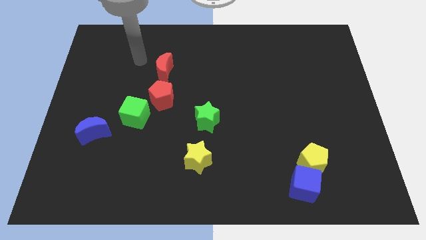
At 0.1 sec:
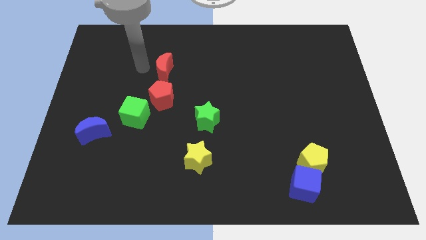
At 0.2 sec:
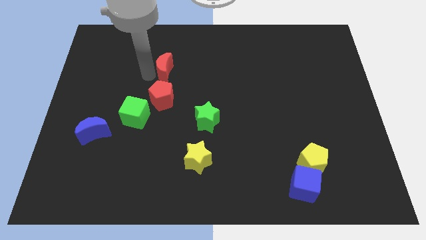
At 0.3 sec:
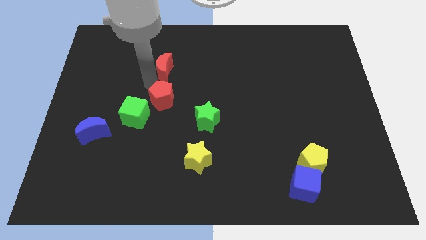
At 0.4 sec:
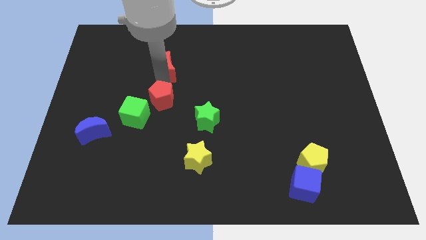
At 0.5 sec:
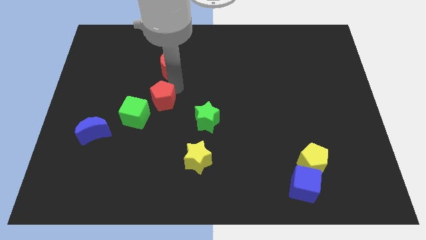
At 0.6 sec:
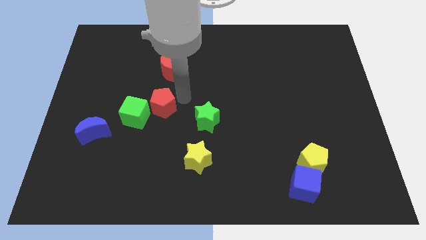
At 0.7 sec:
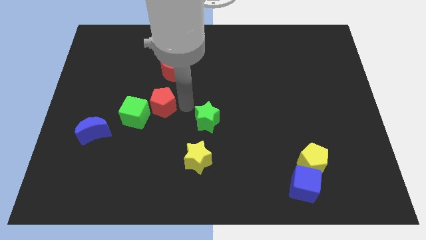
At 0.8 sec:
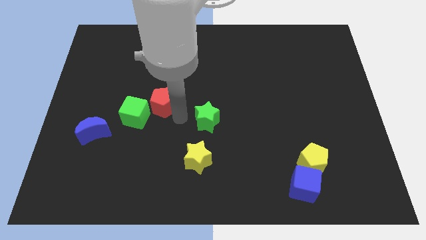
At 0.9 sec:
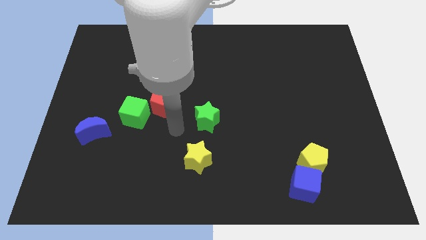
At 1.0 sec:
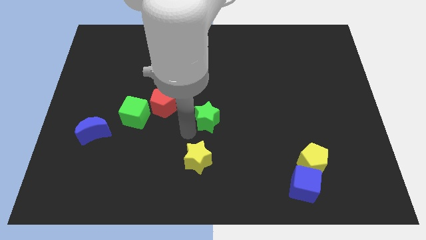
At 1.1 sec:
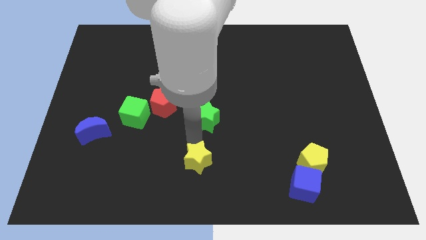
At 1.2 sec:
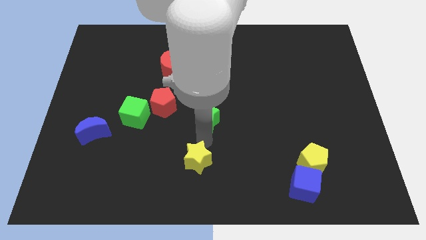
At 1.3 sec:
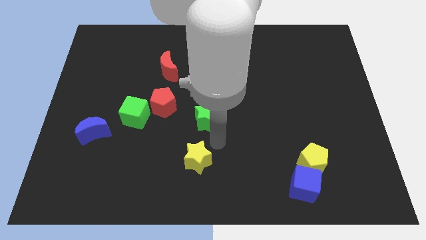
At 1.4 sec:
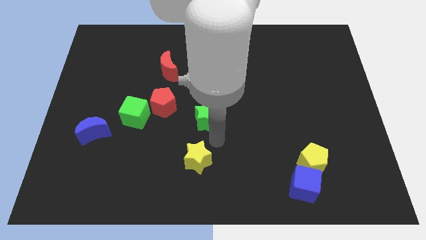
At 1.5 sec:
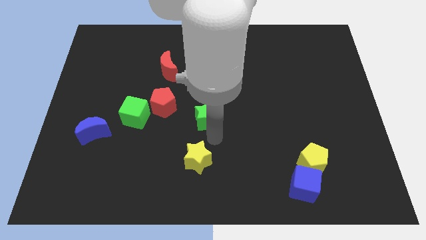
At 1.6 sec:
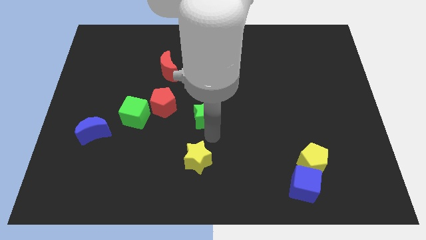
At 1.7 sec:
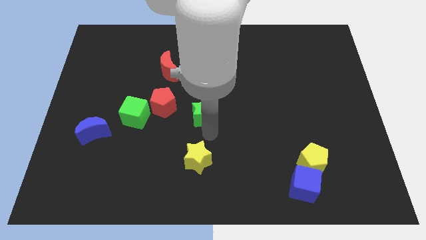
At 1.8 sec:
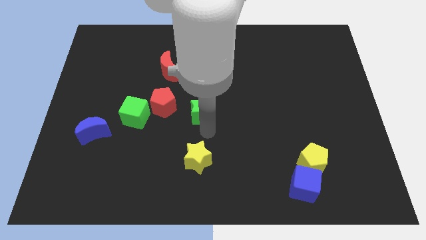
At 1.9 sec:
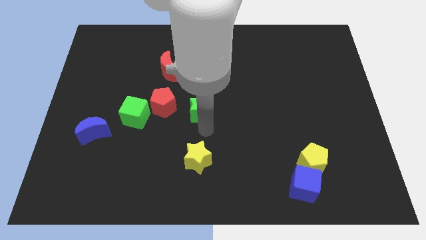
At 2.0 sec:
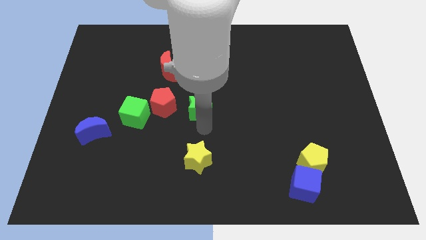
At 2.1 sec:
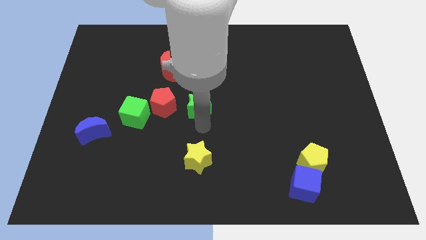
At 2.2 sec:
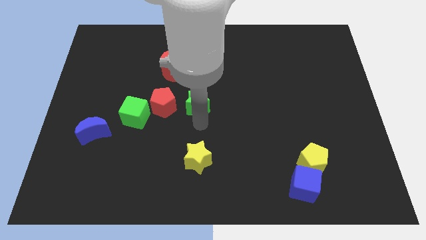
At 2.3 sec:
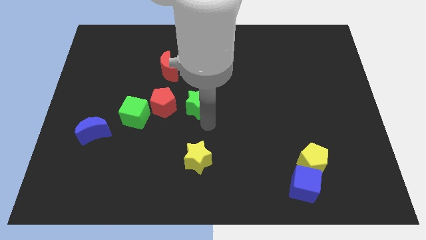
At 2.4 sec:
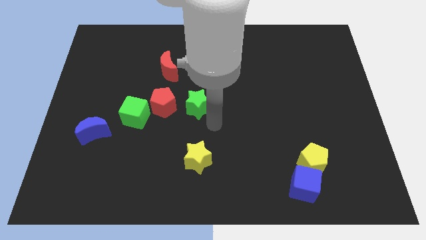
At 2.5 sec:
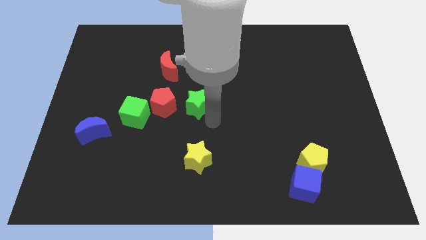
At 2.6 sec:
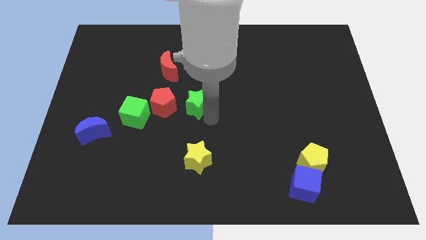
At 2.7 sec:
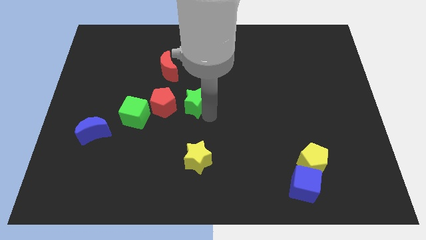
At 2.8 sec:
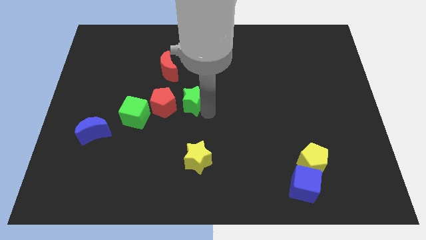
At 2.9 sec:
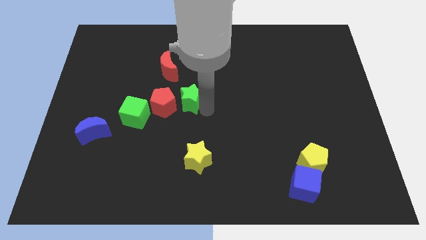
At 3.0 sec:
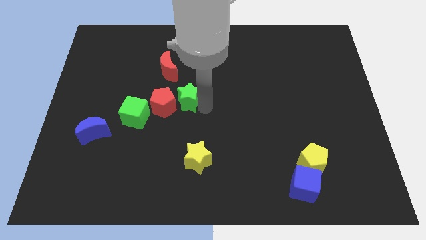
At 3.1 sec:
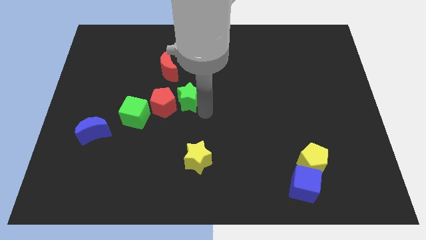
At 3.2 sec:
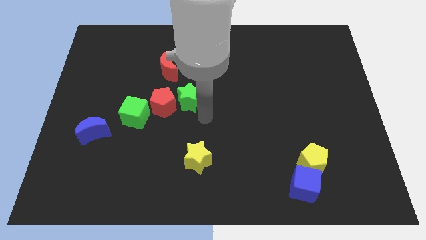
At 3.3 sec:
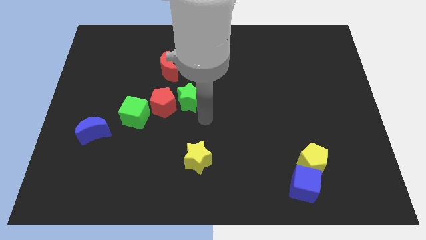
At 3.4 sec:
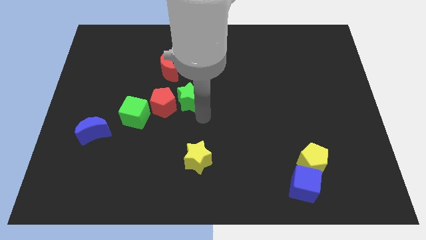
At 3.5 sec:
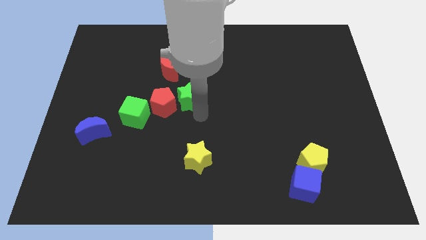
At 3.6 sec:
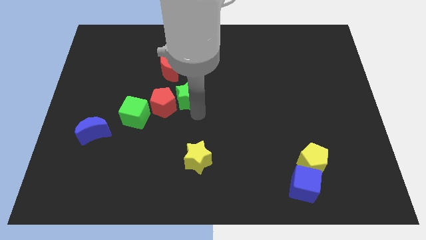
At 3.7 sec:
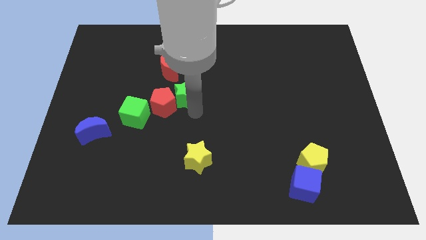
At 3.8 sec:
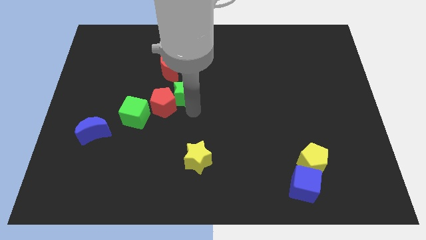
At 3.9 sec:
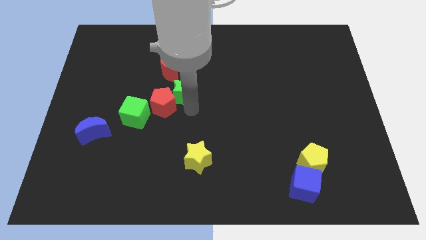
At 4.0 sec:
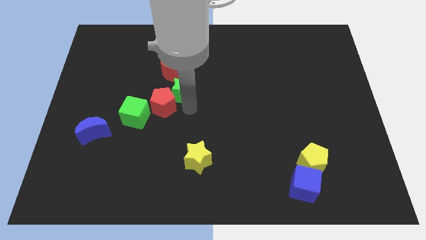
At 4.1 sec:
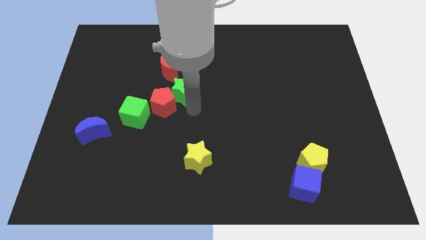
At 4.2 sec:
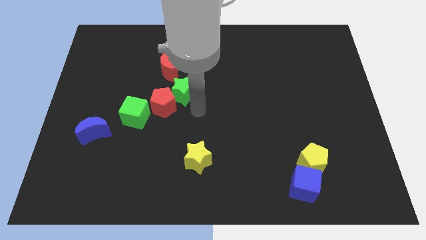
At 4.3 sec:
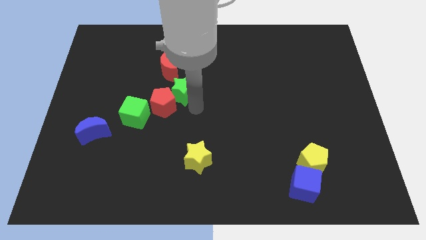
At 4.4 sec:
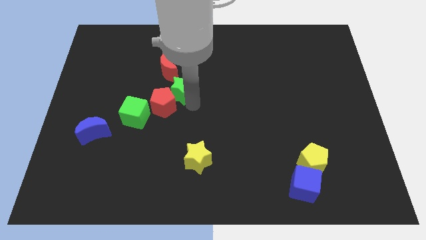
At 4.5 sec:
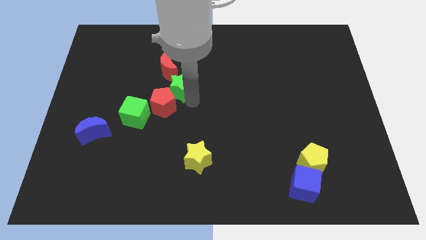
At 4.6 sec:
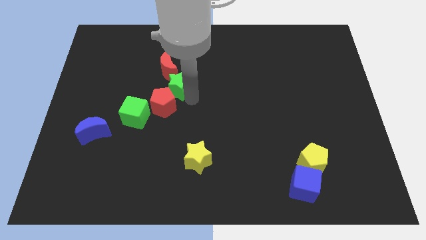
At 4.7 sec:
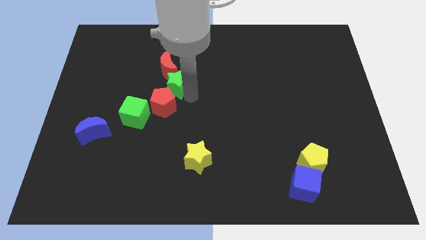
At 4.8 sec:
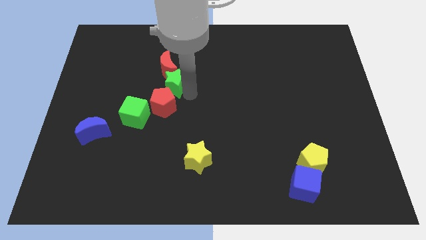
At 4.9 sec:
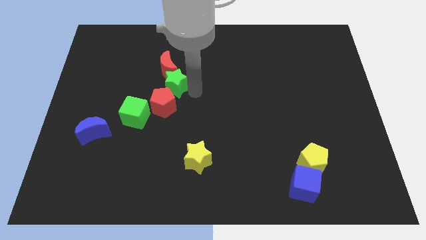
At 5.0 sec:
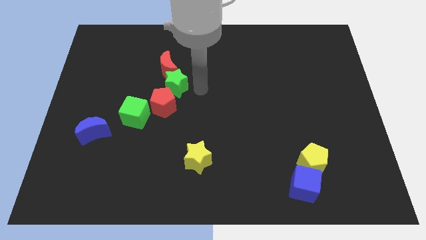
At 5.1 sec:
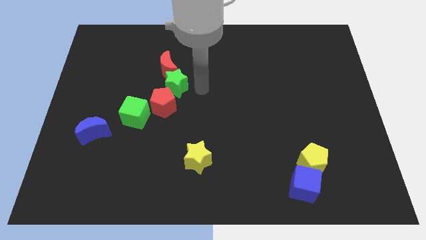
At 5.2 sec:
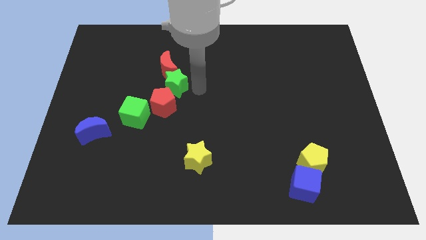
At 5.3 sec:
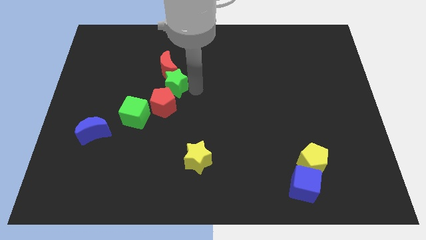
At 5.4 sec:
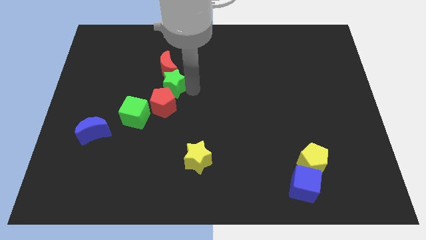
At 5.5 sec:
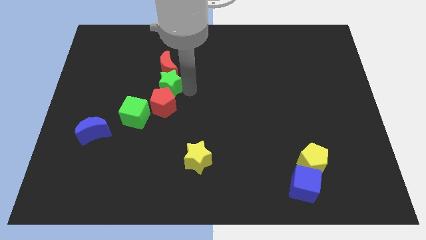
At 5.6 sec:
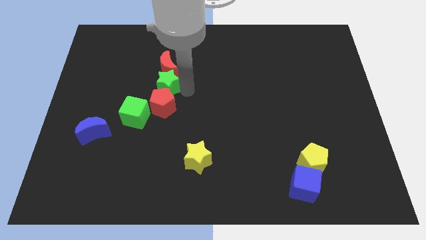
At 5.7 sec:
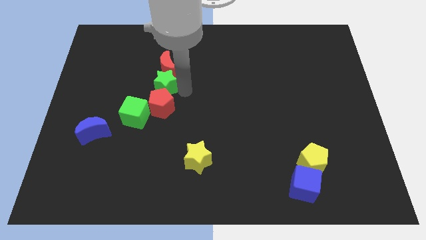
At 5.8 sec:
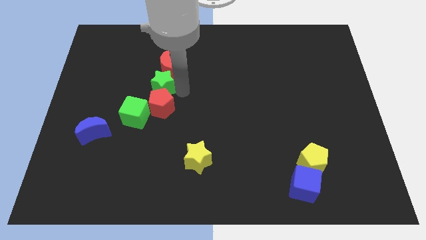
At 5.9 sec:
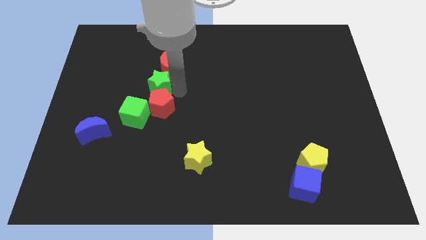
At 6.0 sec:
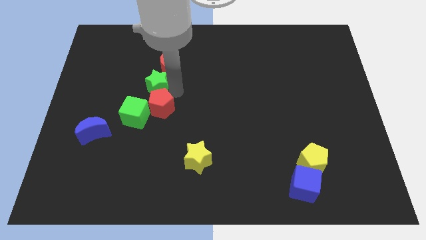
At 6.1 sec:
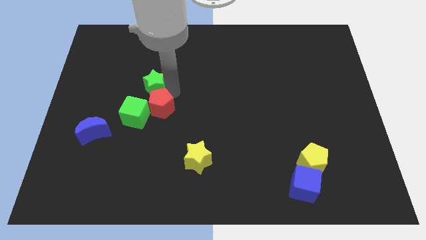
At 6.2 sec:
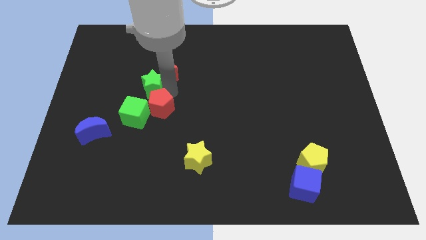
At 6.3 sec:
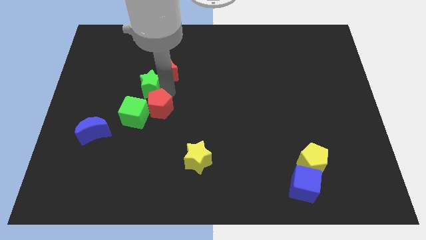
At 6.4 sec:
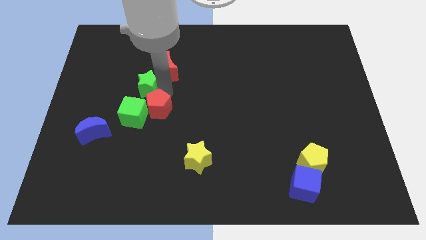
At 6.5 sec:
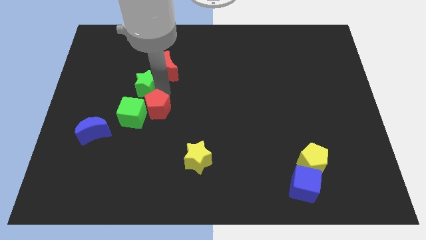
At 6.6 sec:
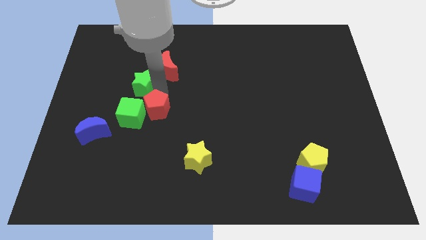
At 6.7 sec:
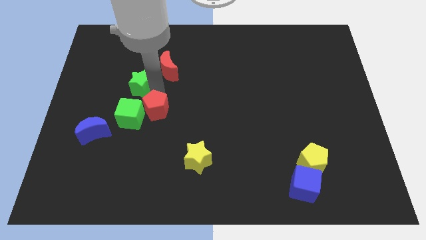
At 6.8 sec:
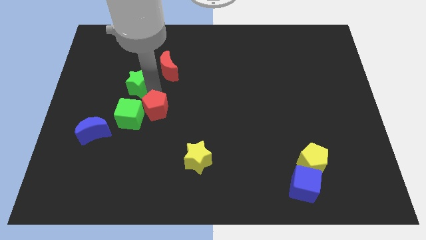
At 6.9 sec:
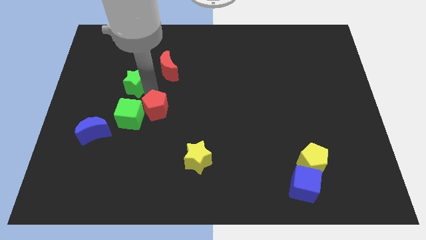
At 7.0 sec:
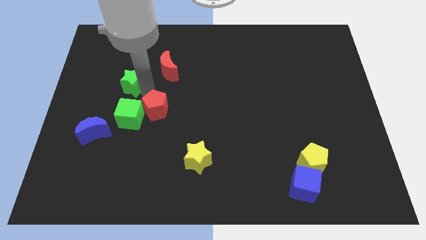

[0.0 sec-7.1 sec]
slide the green star to the left side of the red moon

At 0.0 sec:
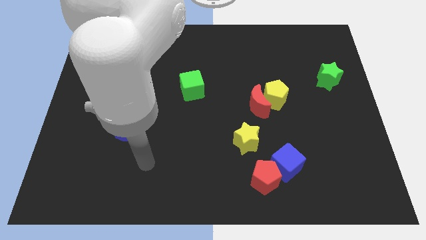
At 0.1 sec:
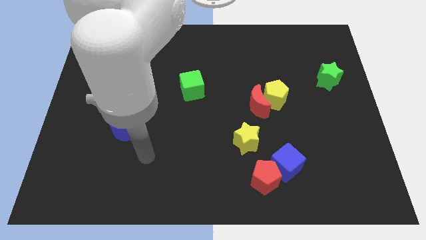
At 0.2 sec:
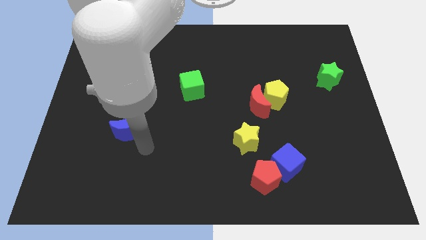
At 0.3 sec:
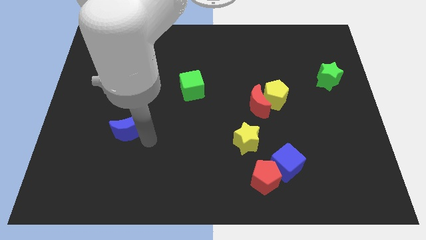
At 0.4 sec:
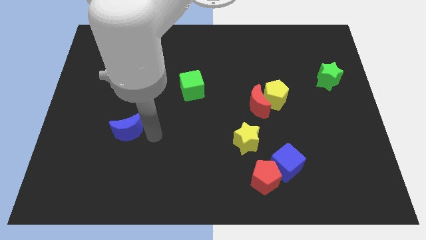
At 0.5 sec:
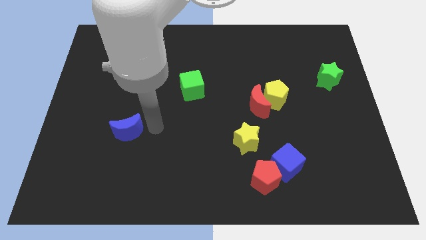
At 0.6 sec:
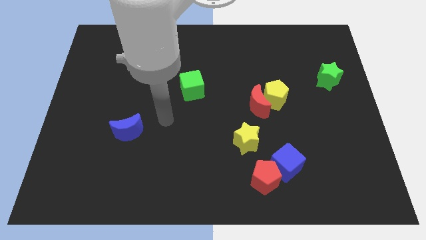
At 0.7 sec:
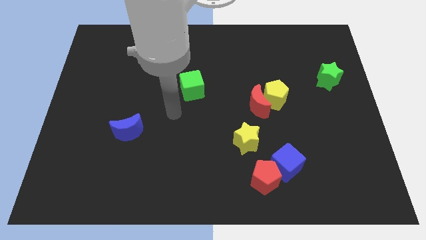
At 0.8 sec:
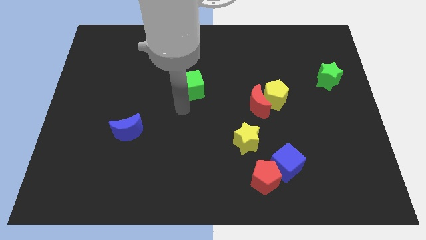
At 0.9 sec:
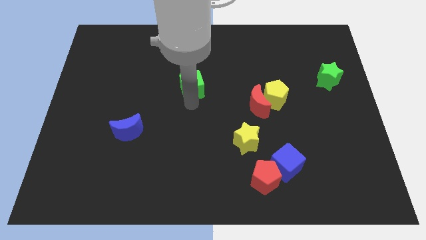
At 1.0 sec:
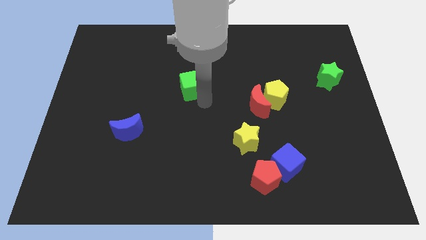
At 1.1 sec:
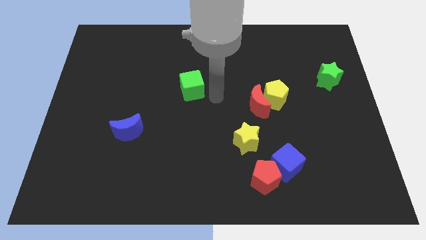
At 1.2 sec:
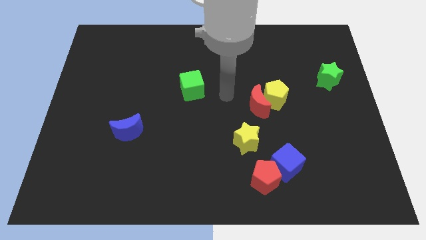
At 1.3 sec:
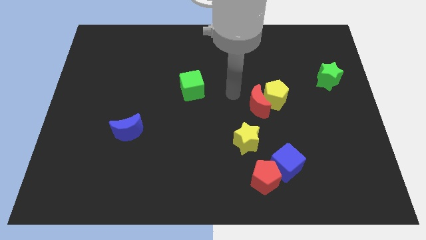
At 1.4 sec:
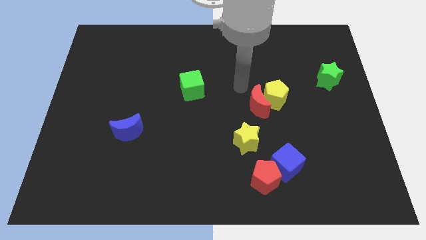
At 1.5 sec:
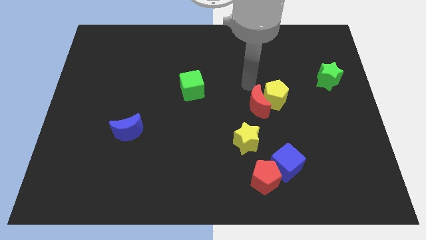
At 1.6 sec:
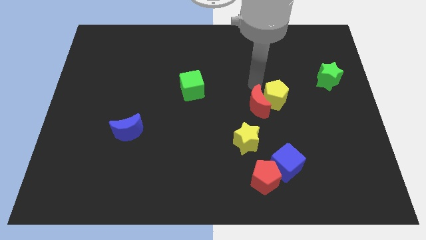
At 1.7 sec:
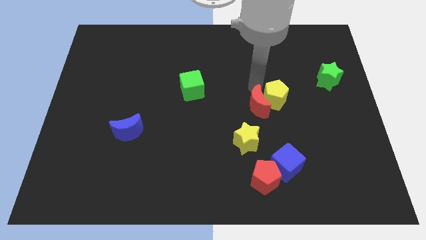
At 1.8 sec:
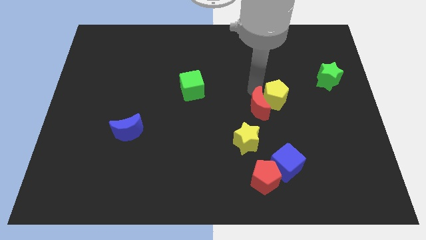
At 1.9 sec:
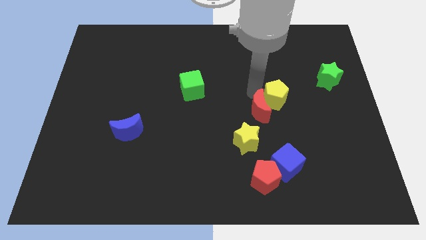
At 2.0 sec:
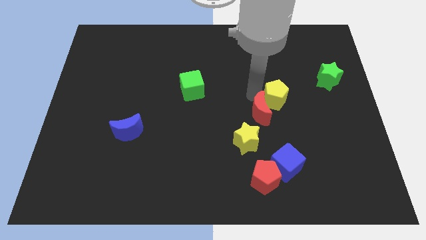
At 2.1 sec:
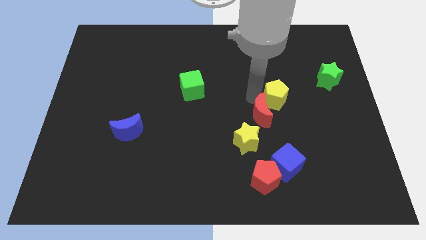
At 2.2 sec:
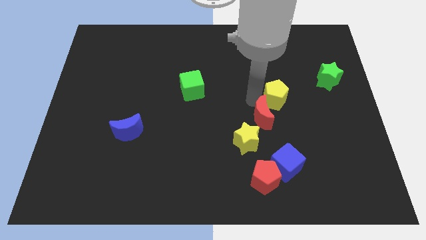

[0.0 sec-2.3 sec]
move the red moon to the top of the red pentagon
